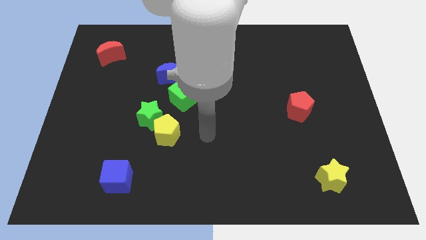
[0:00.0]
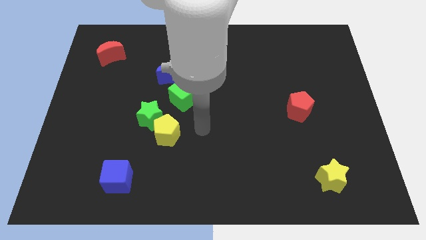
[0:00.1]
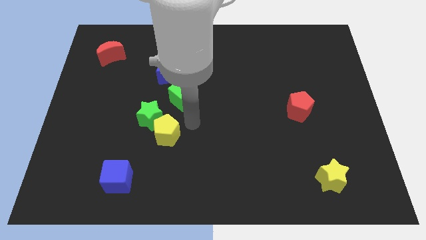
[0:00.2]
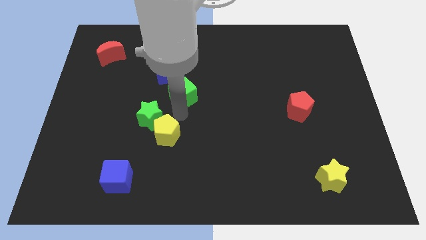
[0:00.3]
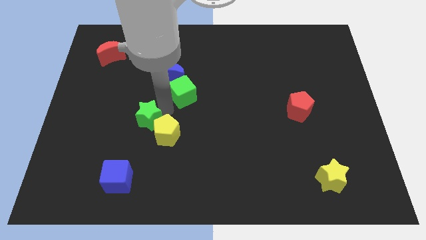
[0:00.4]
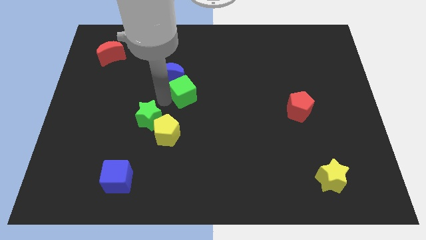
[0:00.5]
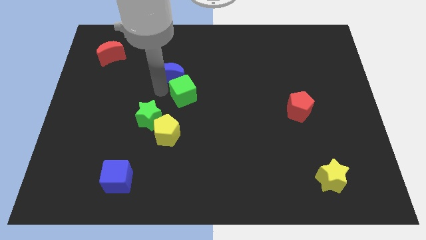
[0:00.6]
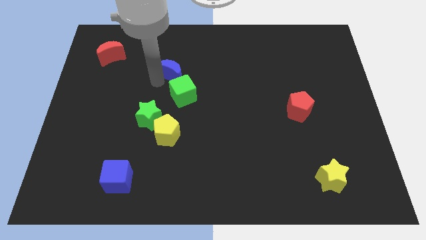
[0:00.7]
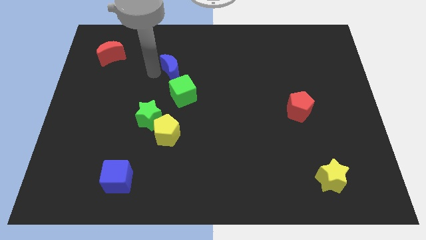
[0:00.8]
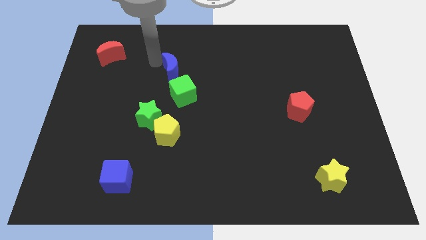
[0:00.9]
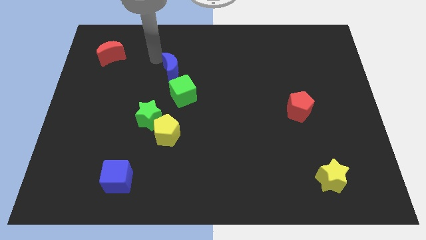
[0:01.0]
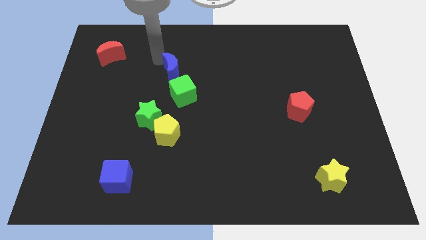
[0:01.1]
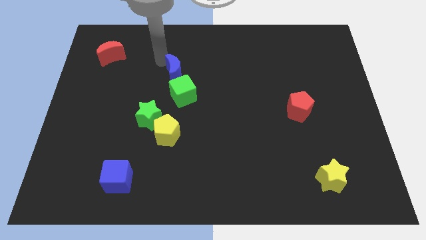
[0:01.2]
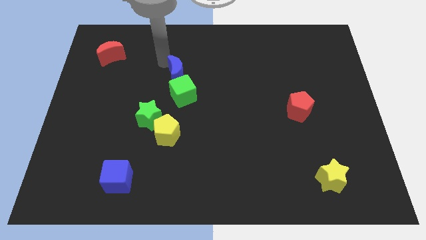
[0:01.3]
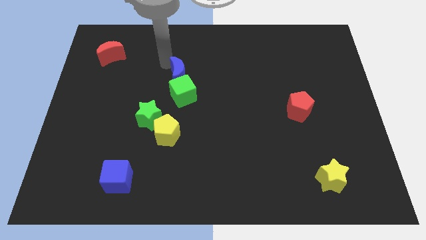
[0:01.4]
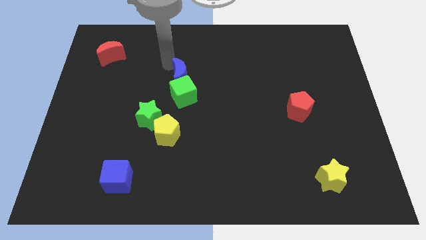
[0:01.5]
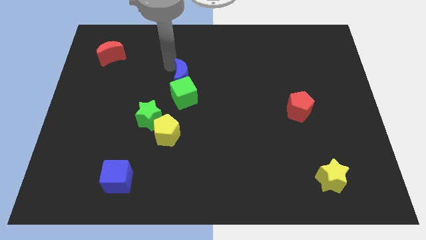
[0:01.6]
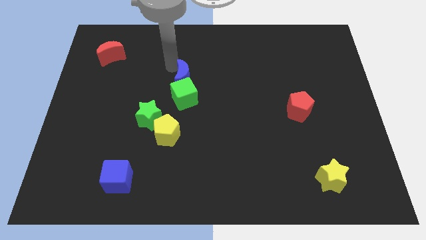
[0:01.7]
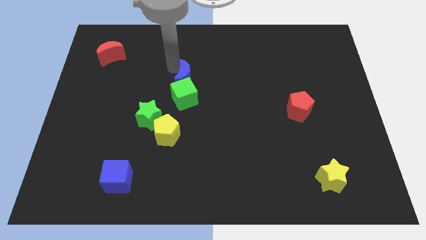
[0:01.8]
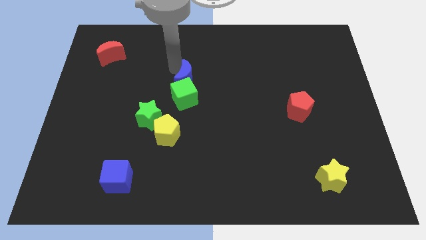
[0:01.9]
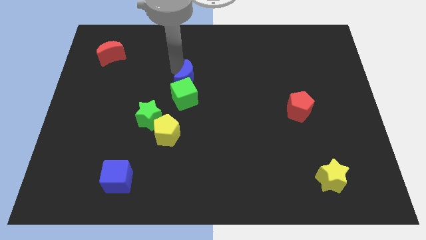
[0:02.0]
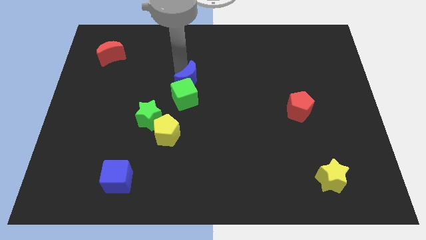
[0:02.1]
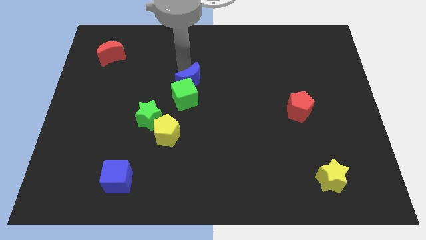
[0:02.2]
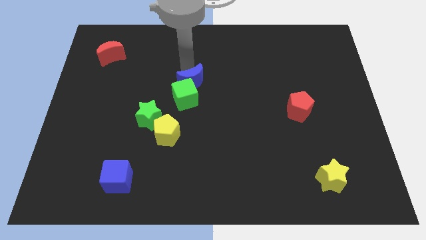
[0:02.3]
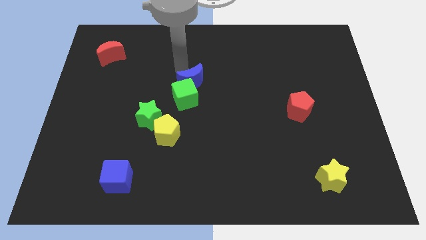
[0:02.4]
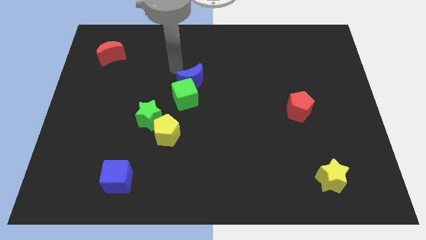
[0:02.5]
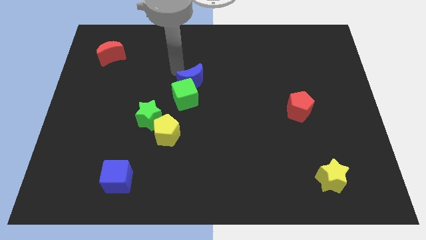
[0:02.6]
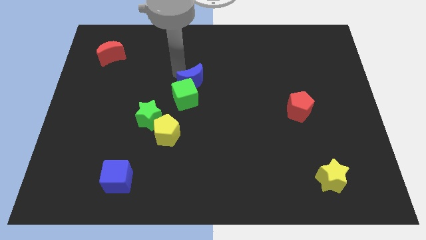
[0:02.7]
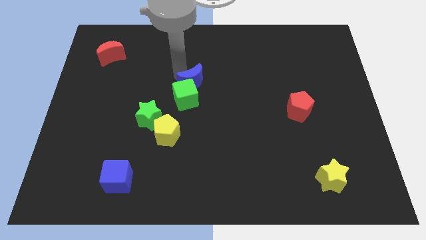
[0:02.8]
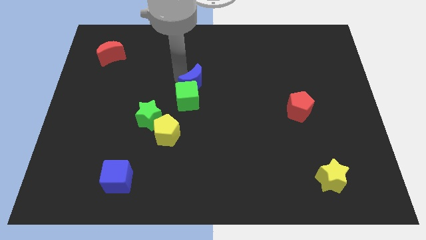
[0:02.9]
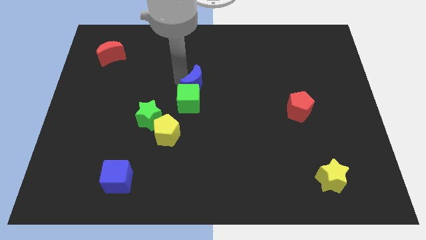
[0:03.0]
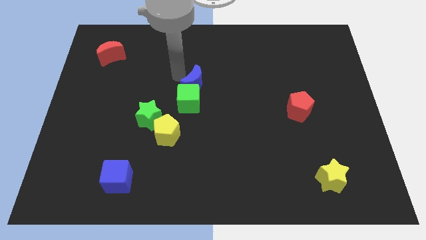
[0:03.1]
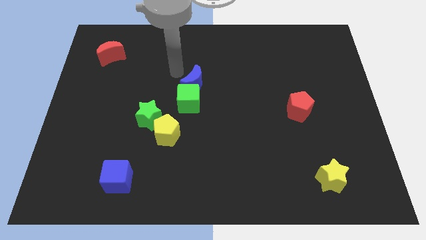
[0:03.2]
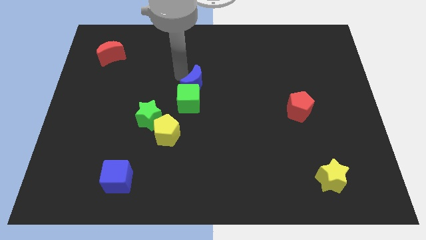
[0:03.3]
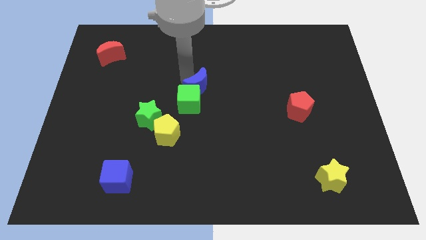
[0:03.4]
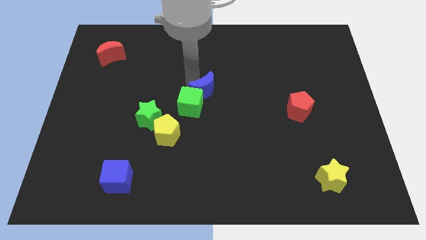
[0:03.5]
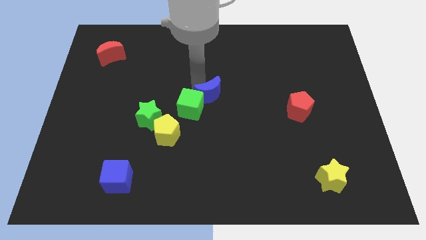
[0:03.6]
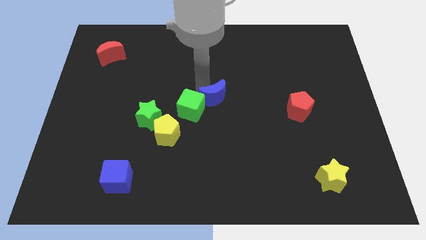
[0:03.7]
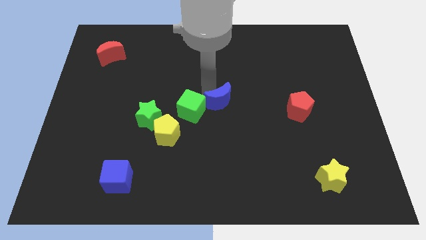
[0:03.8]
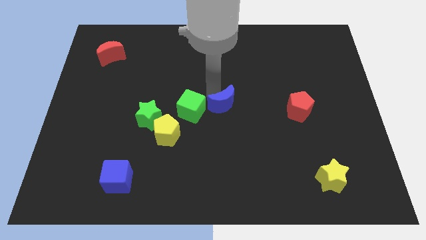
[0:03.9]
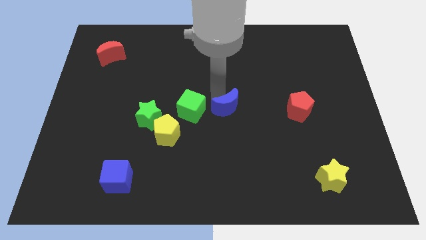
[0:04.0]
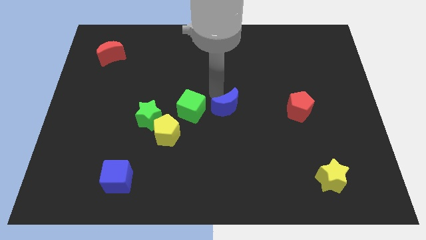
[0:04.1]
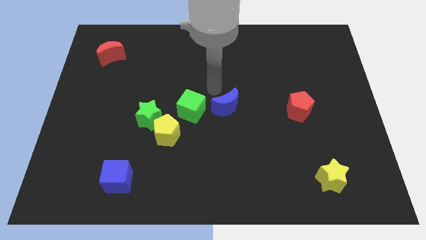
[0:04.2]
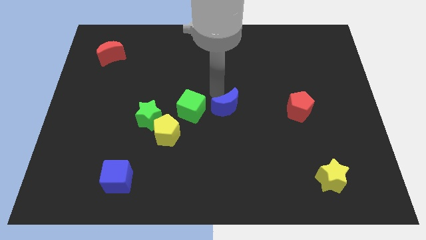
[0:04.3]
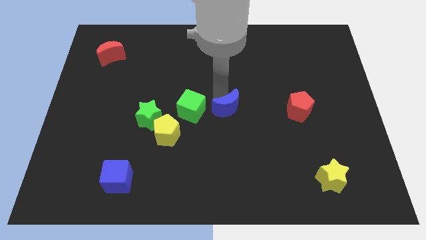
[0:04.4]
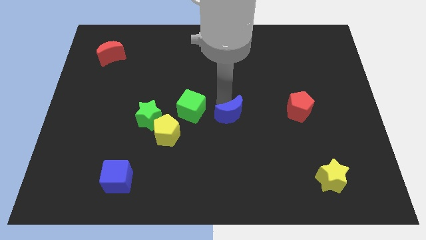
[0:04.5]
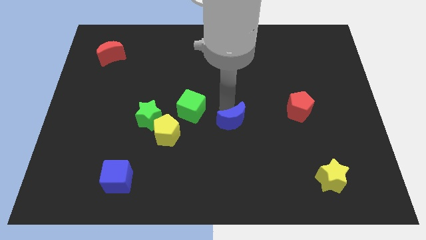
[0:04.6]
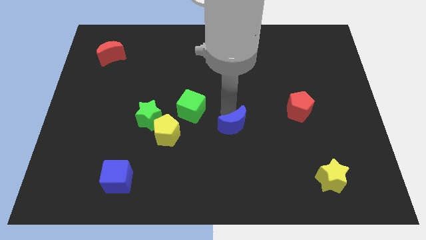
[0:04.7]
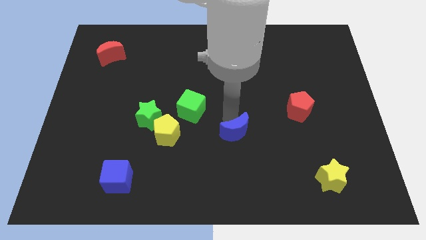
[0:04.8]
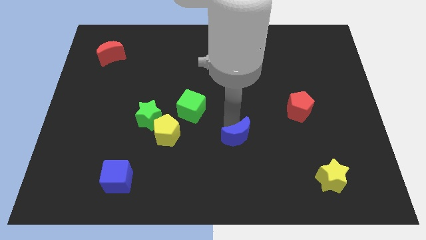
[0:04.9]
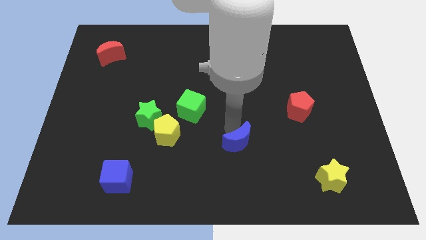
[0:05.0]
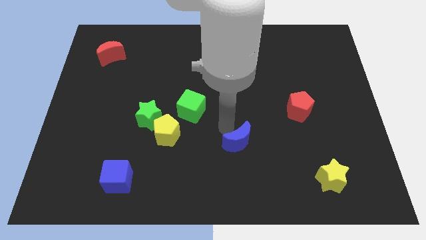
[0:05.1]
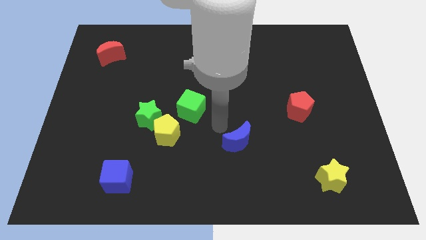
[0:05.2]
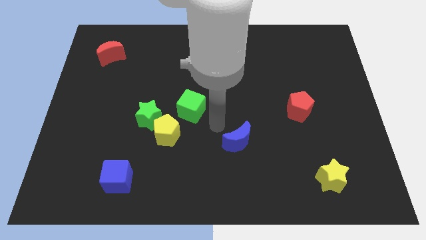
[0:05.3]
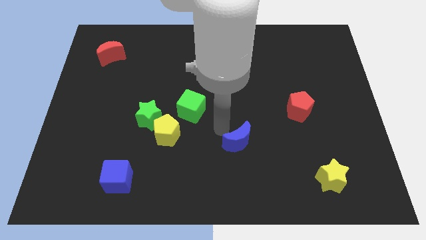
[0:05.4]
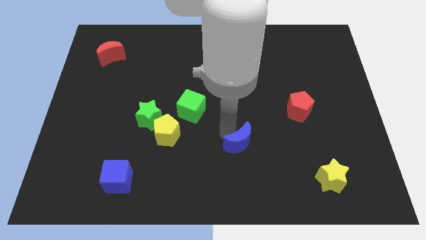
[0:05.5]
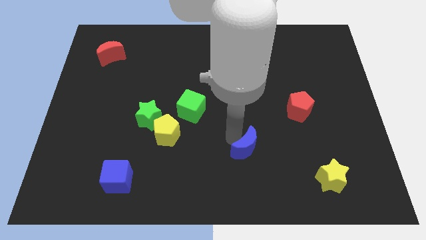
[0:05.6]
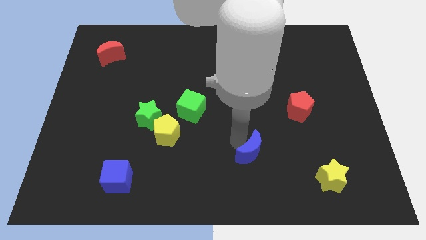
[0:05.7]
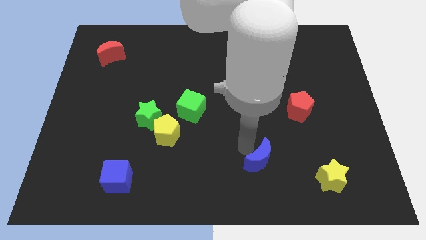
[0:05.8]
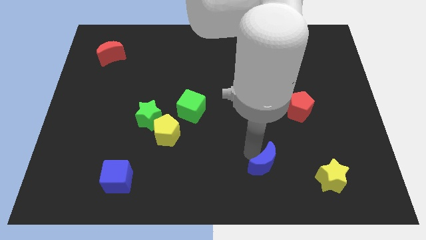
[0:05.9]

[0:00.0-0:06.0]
push the blue moon just left of the yellow star
